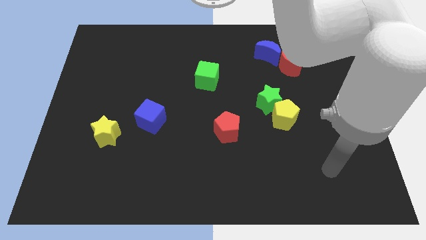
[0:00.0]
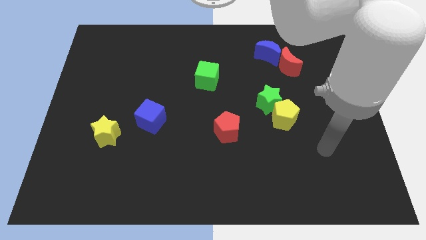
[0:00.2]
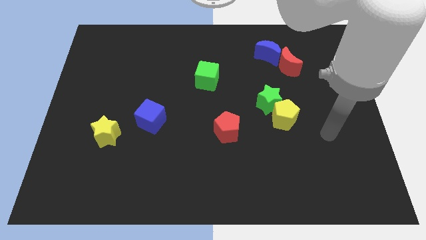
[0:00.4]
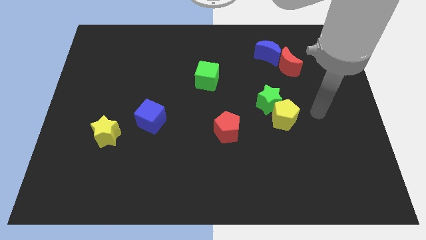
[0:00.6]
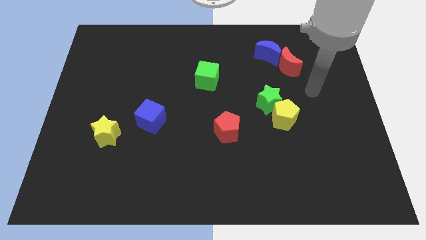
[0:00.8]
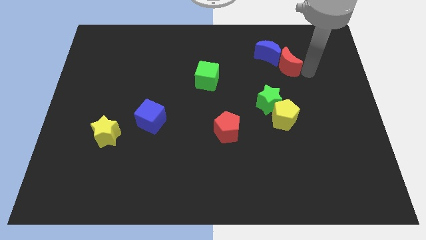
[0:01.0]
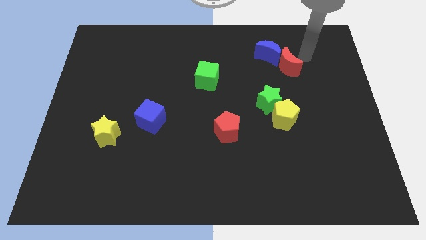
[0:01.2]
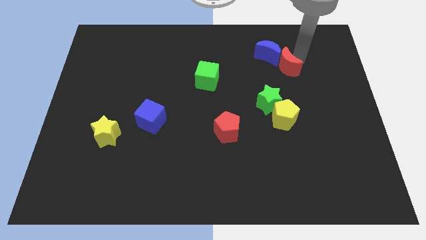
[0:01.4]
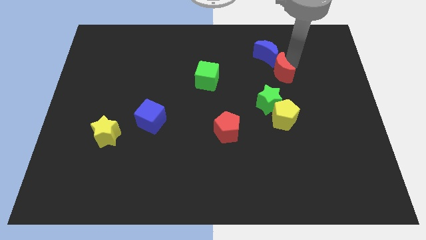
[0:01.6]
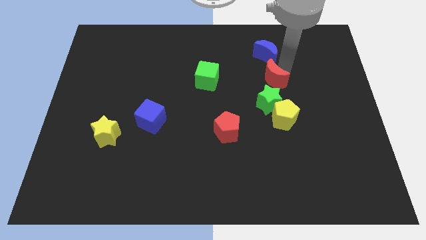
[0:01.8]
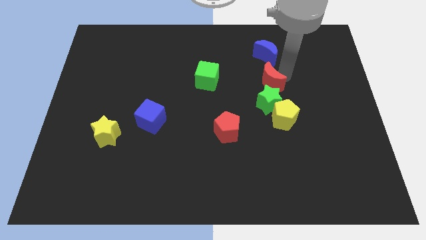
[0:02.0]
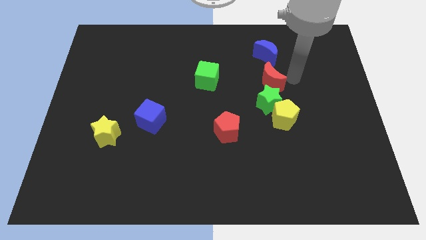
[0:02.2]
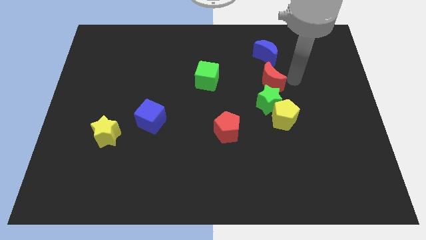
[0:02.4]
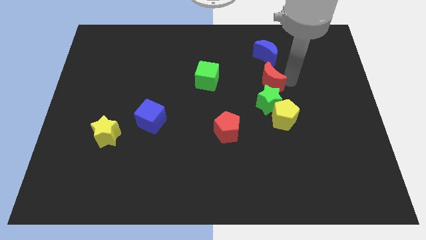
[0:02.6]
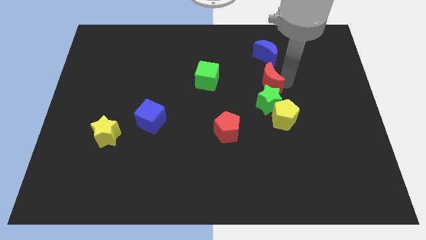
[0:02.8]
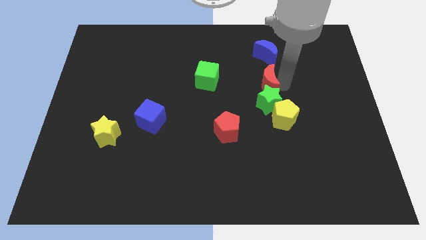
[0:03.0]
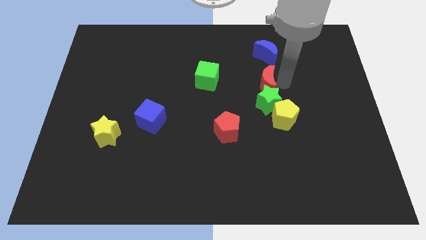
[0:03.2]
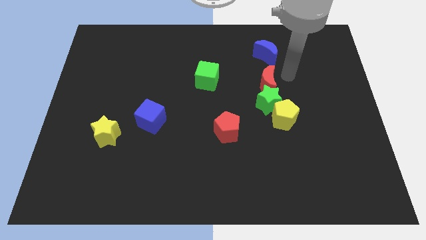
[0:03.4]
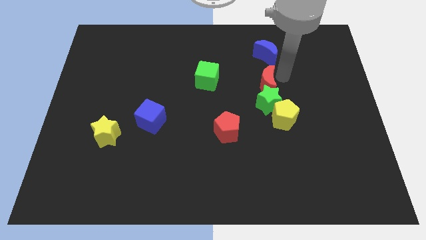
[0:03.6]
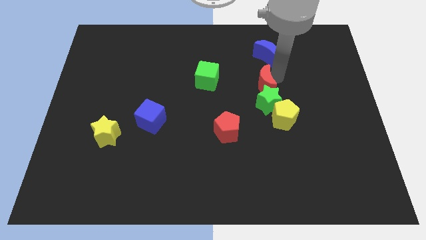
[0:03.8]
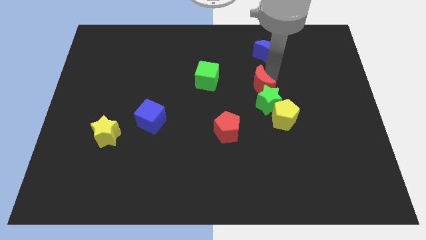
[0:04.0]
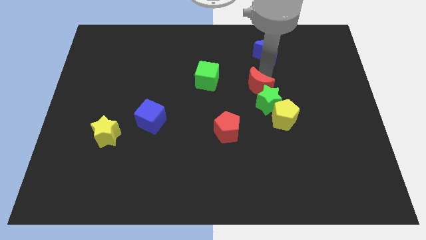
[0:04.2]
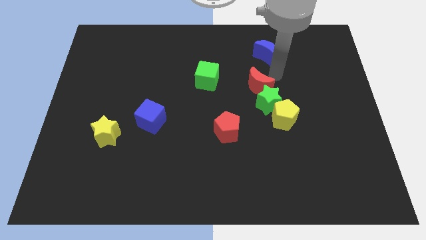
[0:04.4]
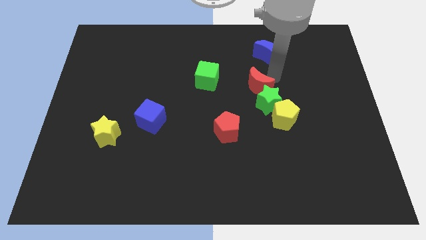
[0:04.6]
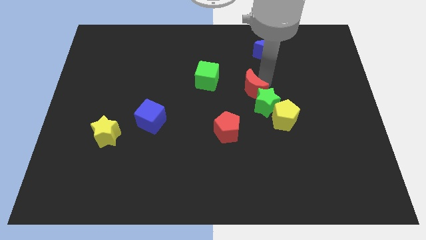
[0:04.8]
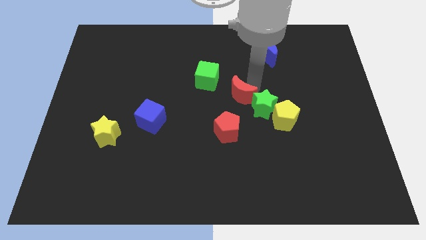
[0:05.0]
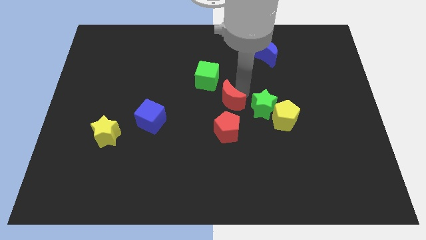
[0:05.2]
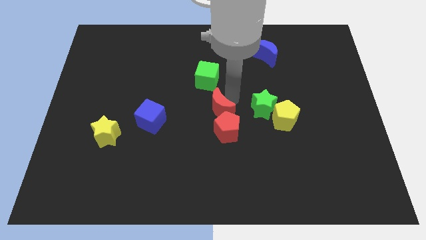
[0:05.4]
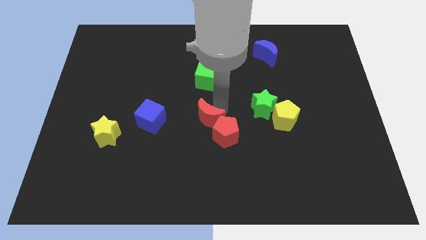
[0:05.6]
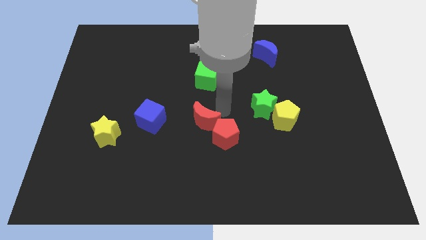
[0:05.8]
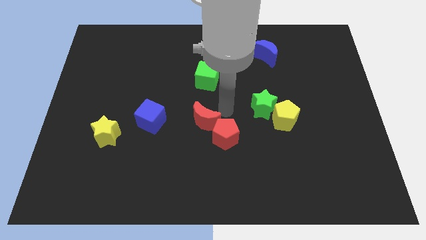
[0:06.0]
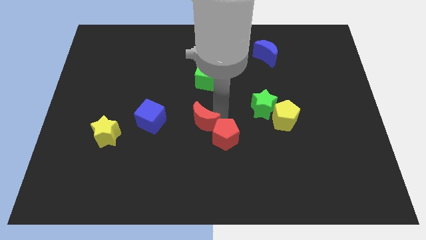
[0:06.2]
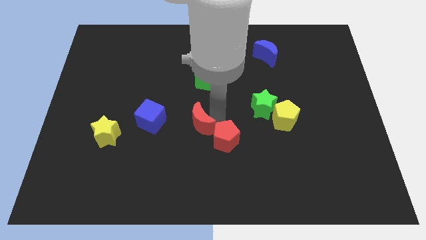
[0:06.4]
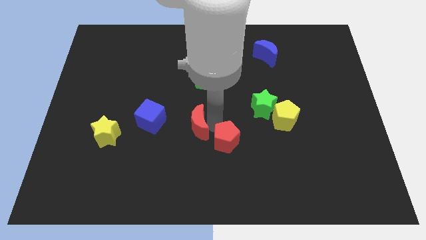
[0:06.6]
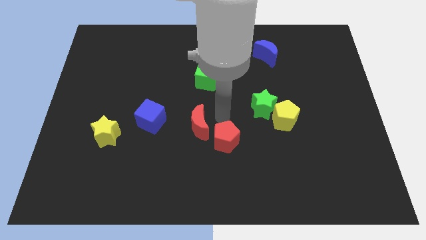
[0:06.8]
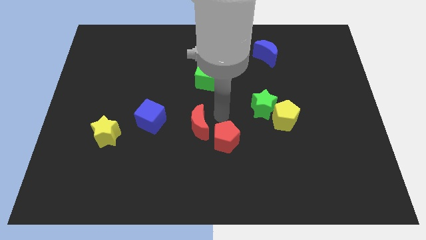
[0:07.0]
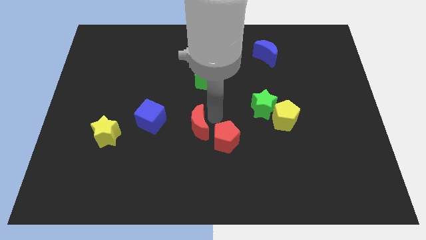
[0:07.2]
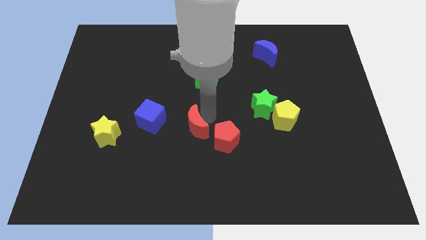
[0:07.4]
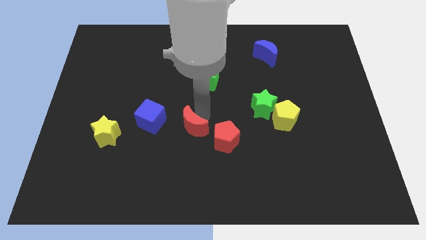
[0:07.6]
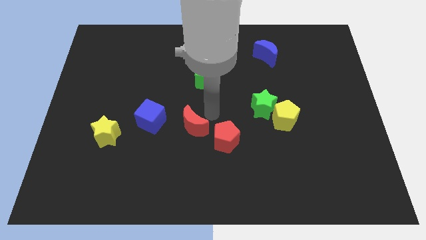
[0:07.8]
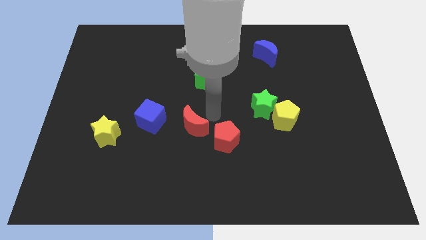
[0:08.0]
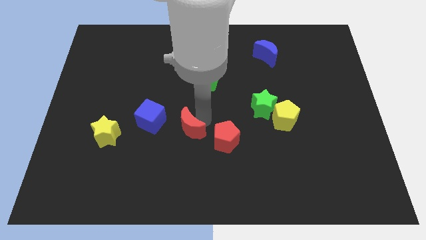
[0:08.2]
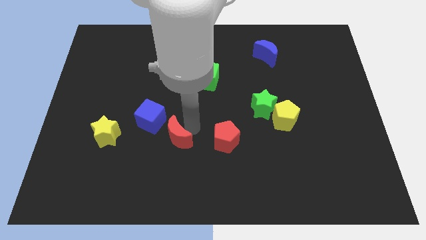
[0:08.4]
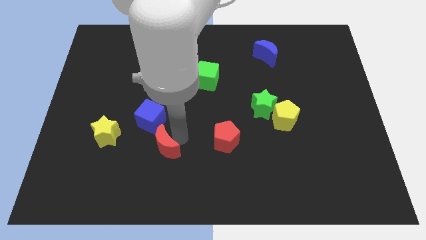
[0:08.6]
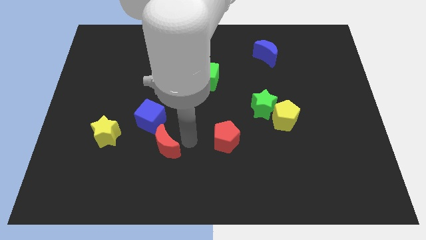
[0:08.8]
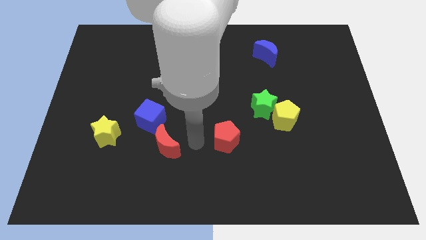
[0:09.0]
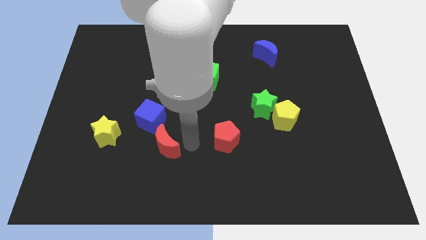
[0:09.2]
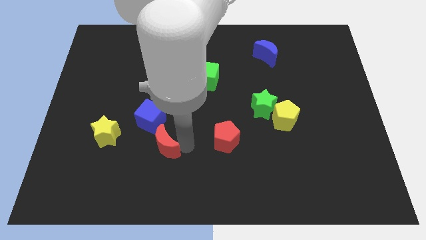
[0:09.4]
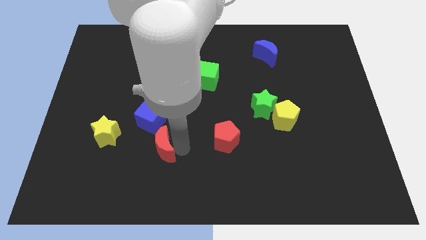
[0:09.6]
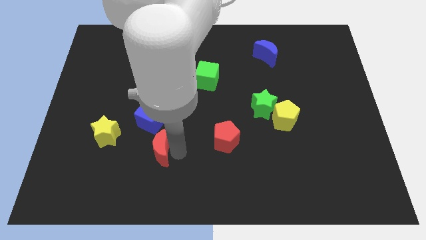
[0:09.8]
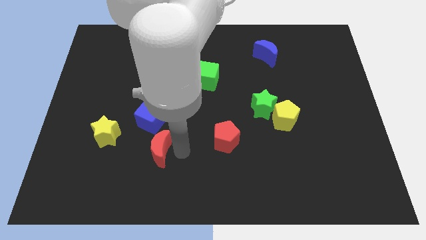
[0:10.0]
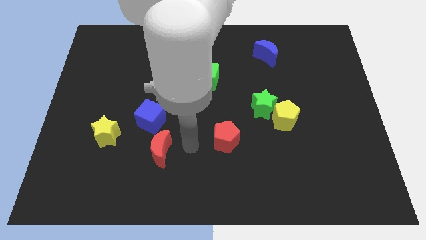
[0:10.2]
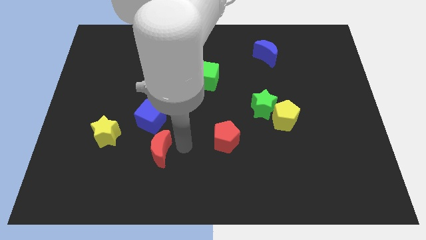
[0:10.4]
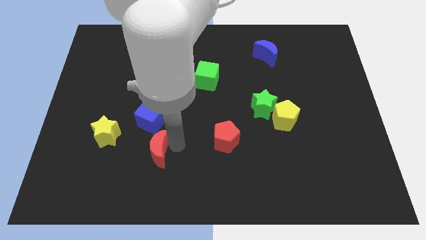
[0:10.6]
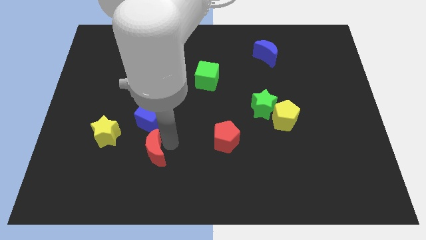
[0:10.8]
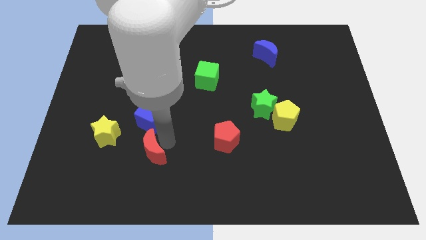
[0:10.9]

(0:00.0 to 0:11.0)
slide the red moon to the bottom right of the yellow star

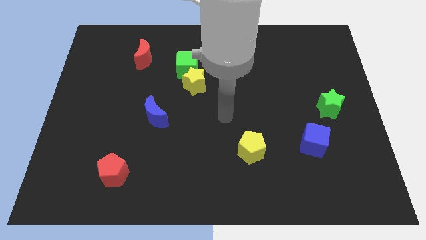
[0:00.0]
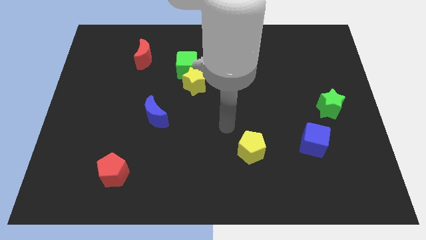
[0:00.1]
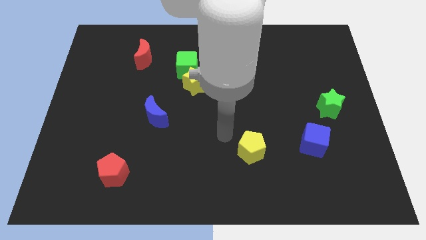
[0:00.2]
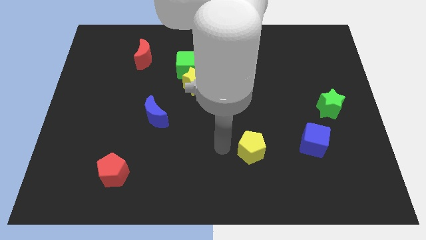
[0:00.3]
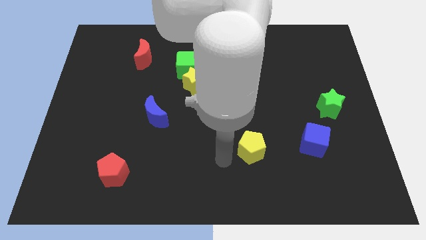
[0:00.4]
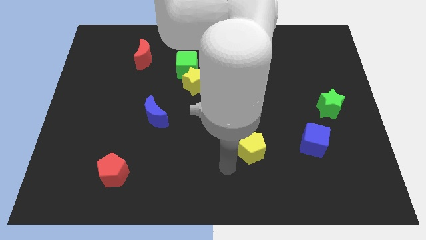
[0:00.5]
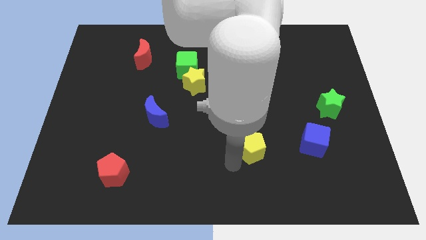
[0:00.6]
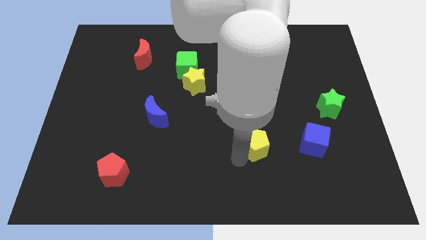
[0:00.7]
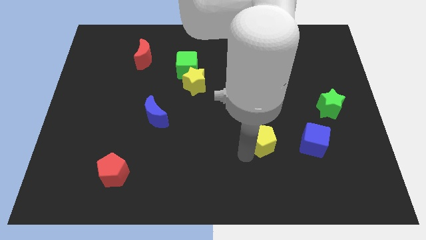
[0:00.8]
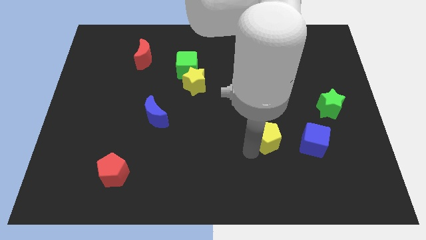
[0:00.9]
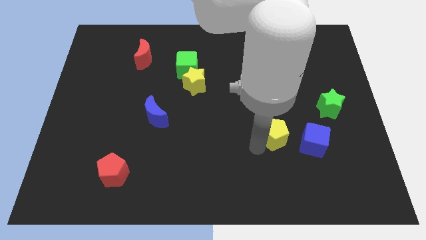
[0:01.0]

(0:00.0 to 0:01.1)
push the yellow pentagon to the top left of the blue cube
